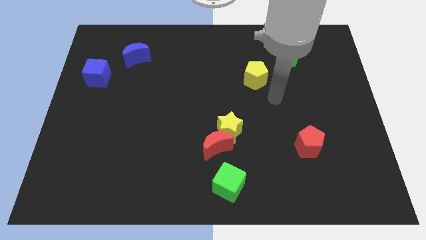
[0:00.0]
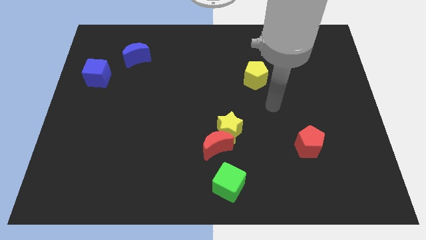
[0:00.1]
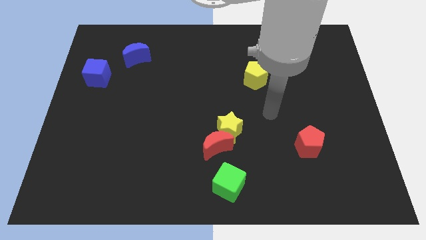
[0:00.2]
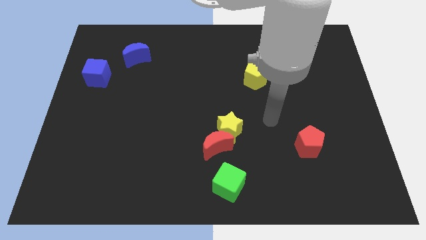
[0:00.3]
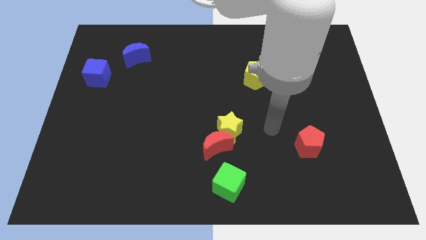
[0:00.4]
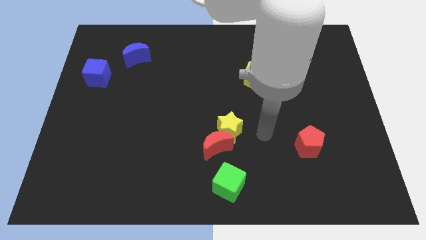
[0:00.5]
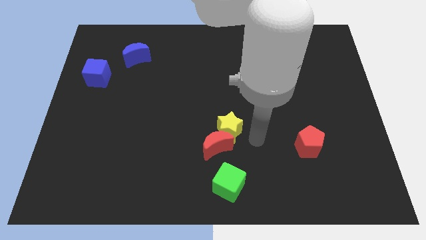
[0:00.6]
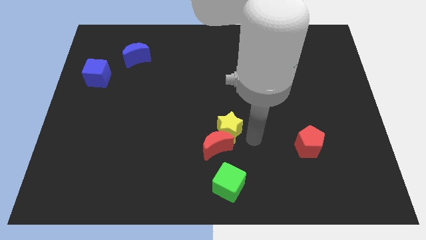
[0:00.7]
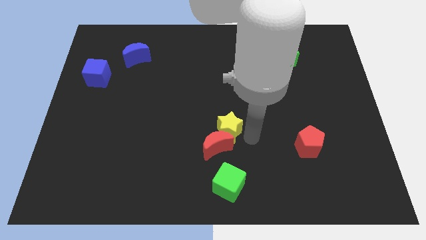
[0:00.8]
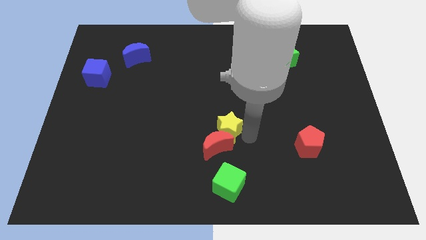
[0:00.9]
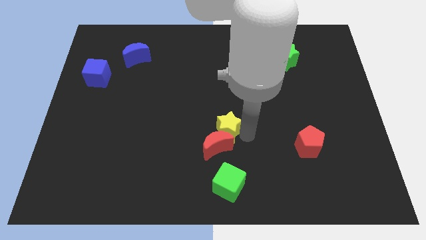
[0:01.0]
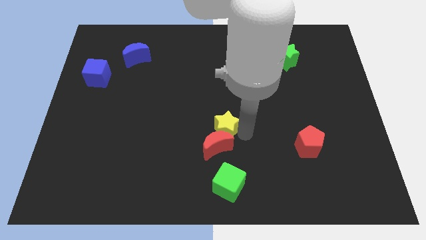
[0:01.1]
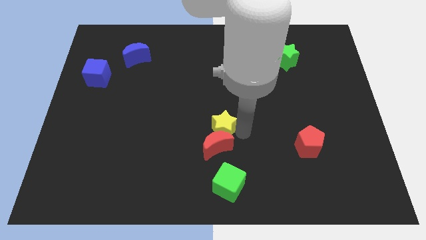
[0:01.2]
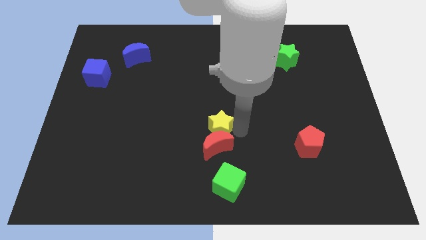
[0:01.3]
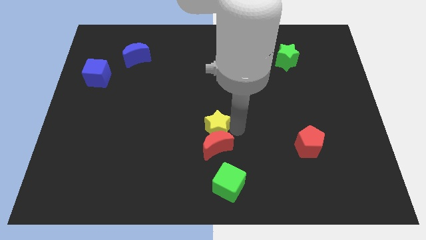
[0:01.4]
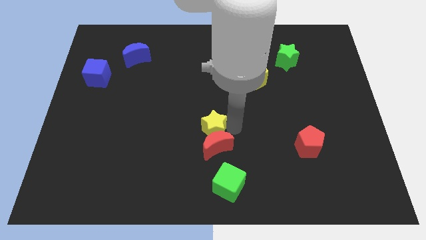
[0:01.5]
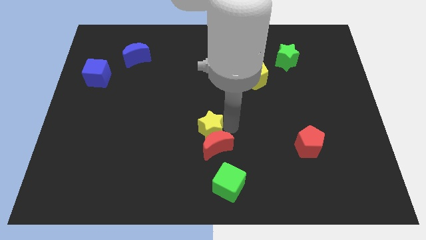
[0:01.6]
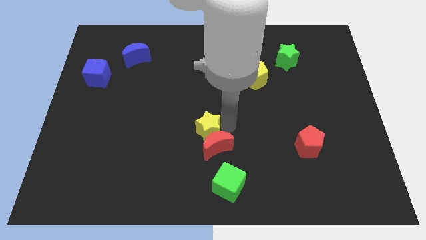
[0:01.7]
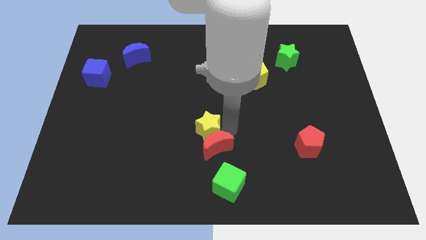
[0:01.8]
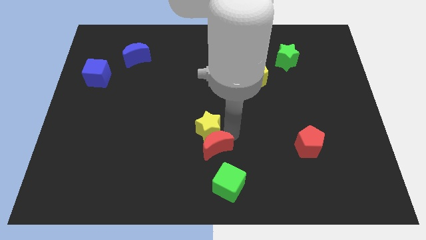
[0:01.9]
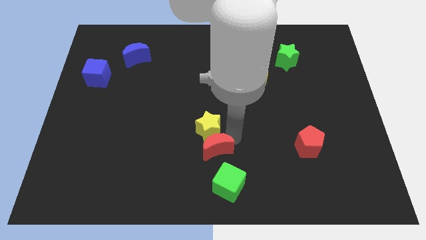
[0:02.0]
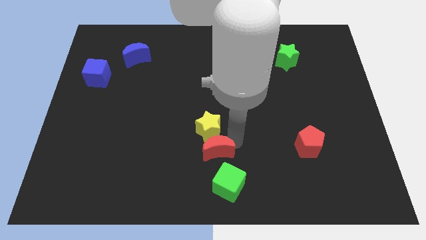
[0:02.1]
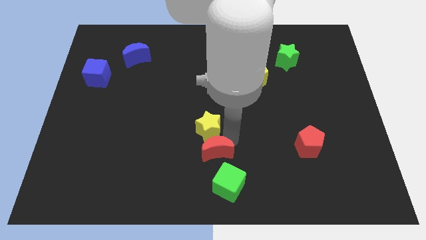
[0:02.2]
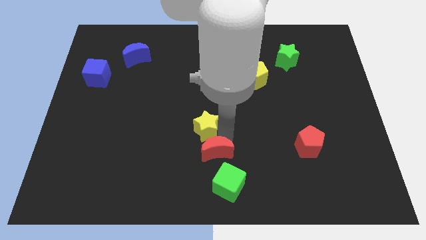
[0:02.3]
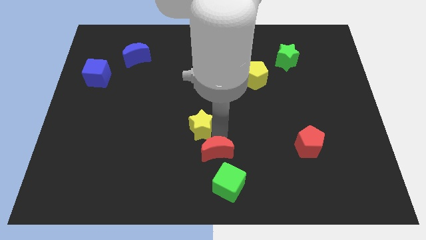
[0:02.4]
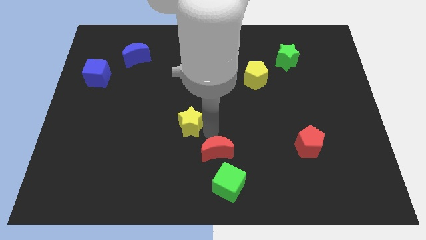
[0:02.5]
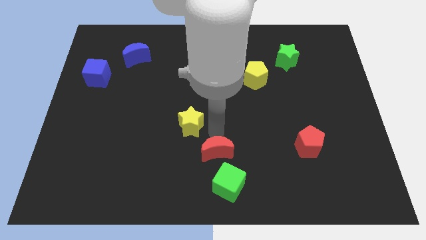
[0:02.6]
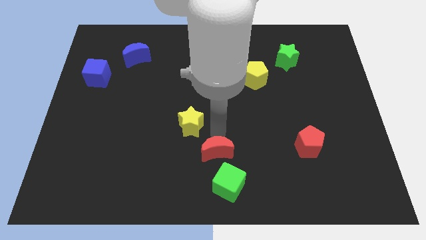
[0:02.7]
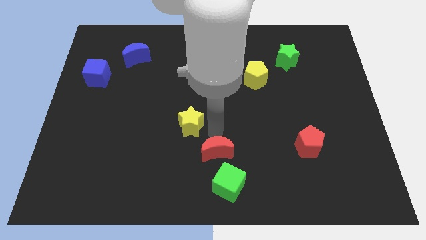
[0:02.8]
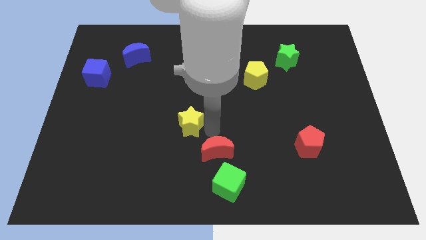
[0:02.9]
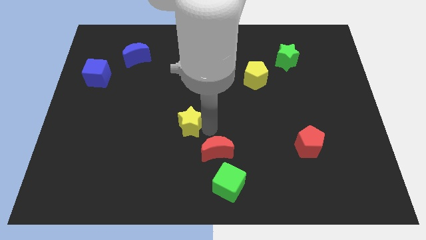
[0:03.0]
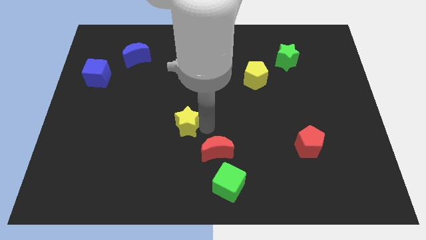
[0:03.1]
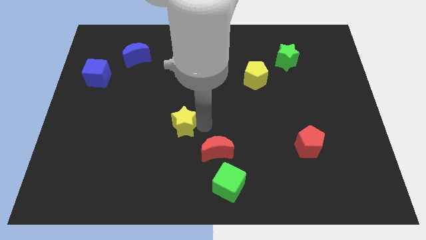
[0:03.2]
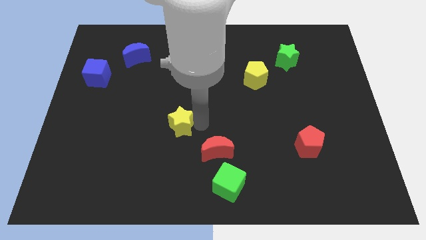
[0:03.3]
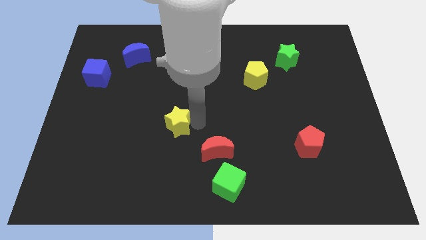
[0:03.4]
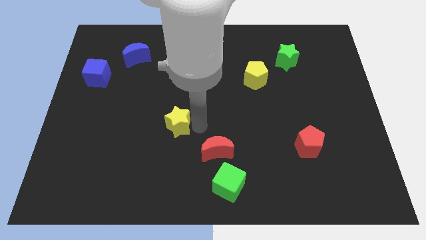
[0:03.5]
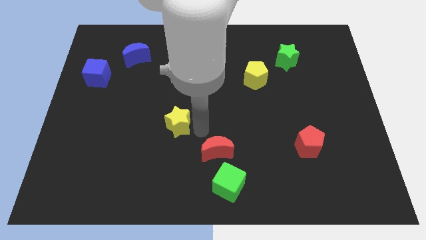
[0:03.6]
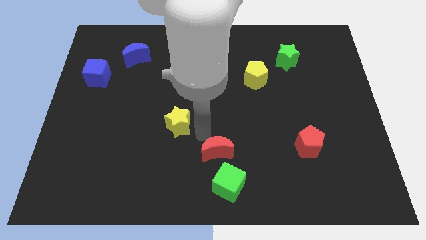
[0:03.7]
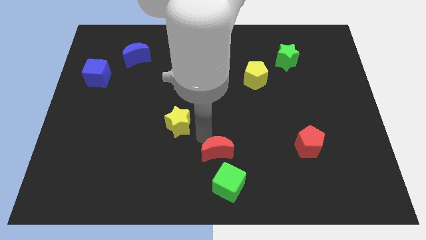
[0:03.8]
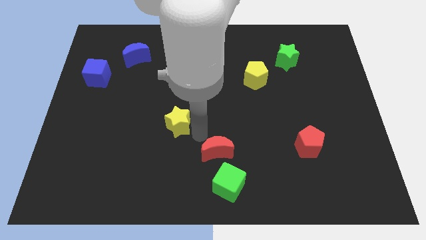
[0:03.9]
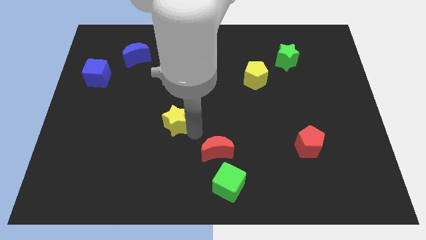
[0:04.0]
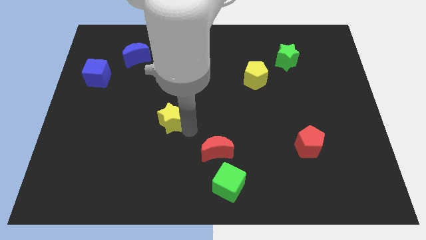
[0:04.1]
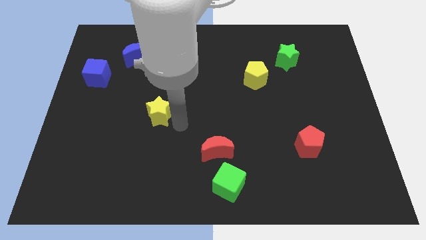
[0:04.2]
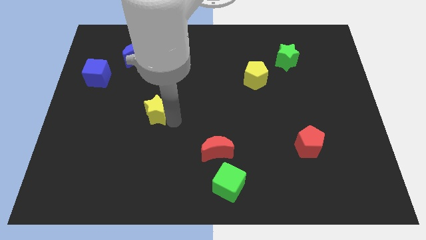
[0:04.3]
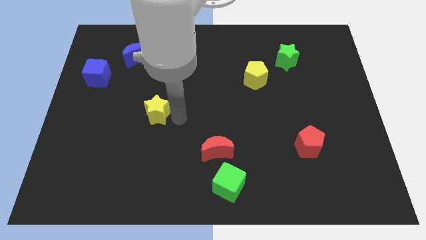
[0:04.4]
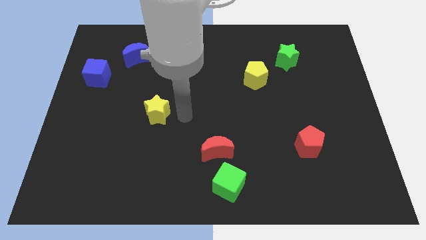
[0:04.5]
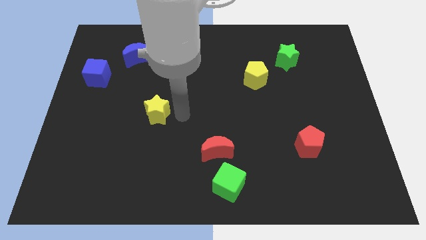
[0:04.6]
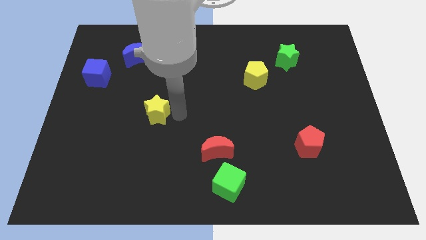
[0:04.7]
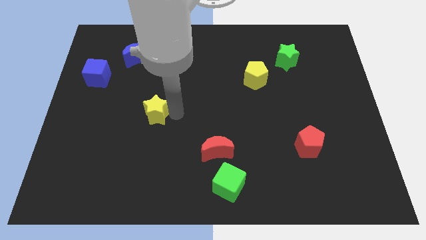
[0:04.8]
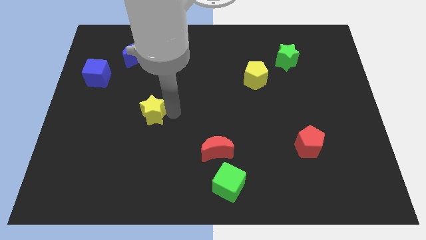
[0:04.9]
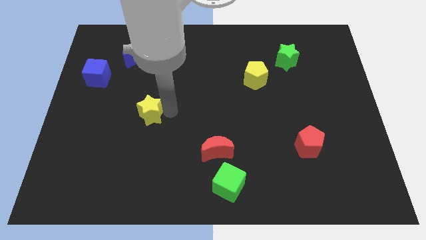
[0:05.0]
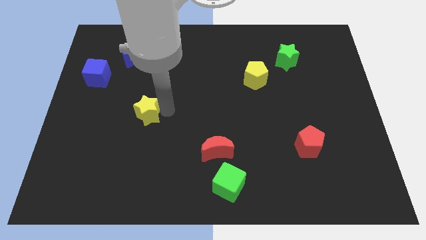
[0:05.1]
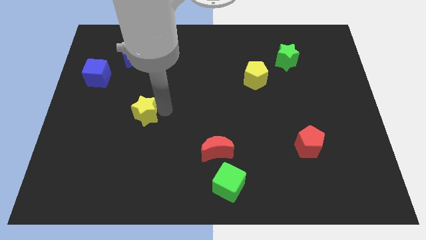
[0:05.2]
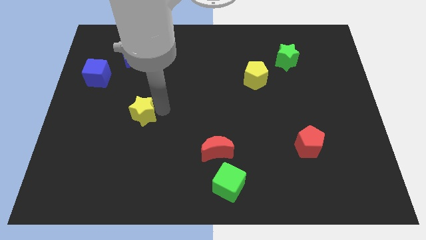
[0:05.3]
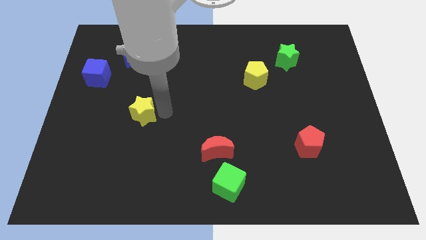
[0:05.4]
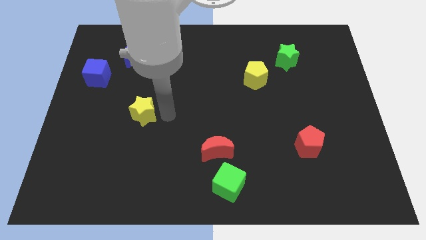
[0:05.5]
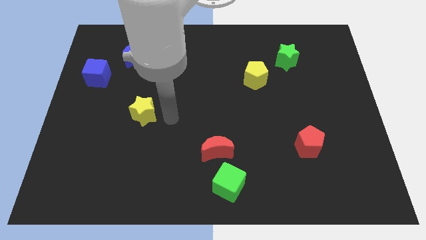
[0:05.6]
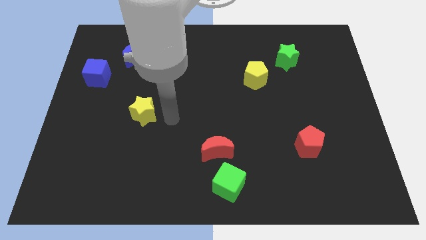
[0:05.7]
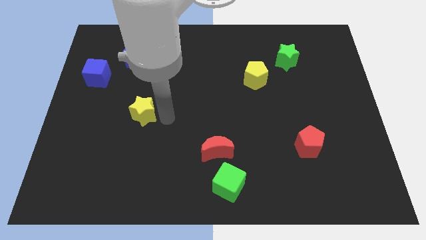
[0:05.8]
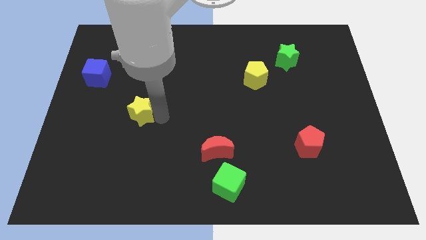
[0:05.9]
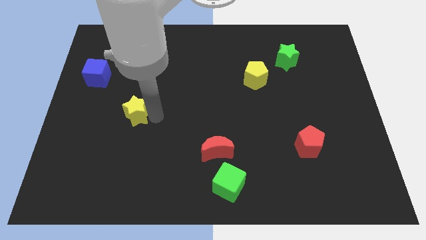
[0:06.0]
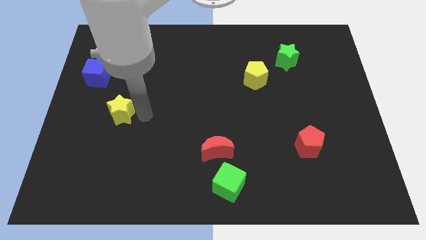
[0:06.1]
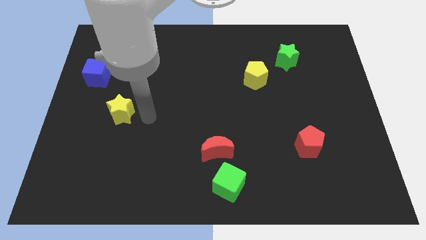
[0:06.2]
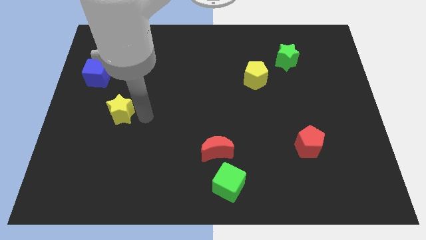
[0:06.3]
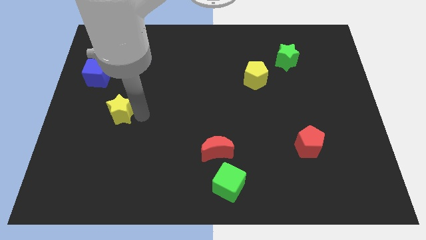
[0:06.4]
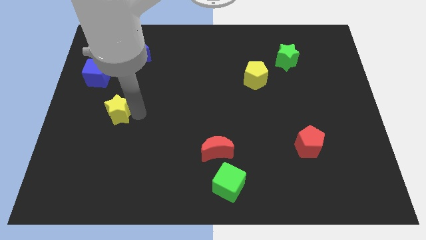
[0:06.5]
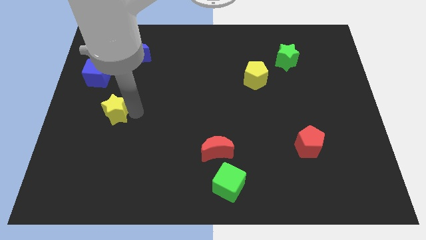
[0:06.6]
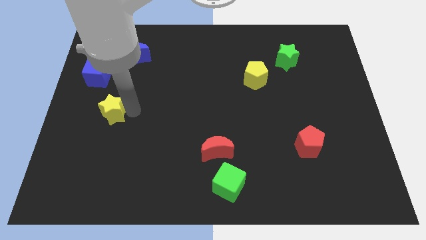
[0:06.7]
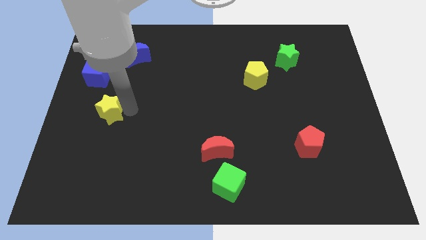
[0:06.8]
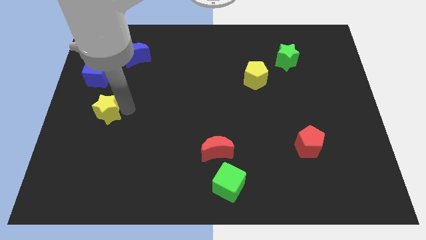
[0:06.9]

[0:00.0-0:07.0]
put the yellow star below the blue cube
